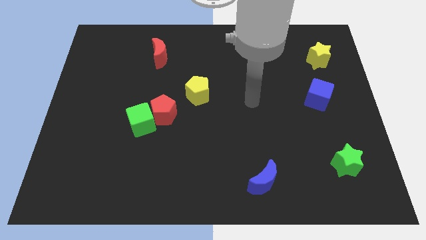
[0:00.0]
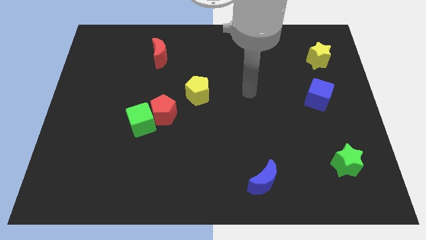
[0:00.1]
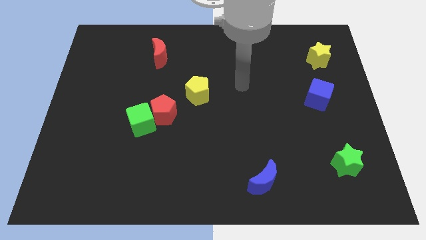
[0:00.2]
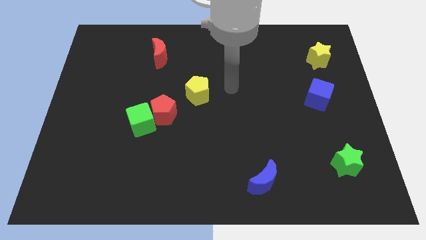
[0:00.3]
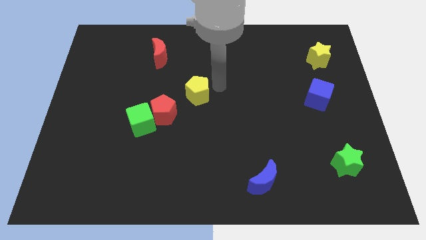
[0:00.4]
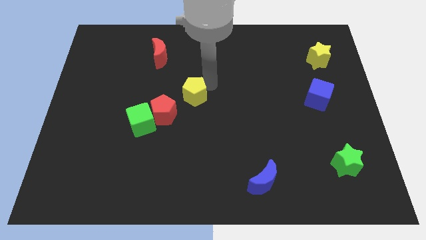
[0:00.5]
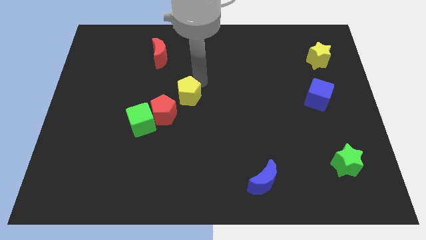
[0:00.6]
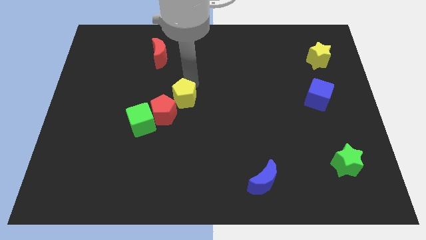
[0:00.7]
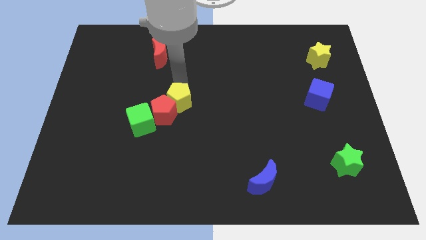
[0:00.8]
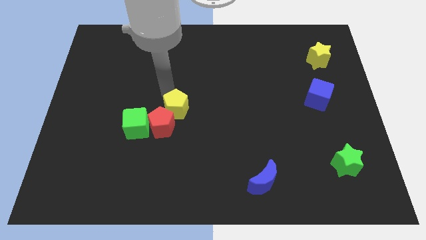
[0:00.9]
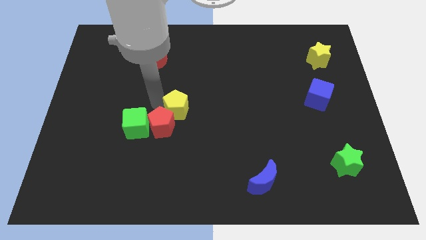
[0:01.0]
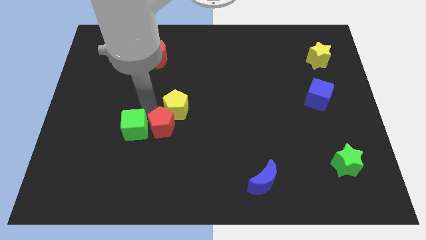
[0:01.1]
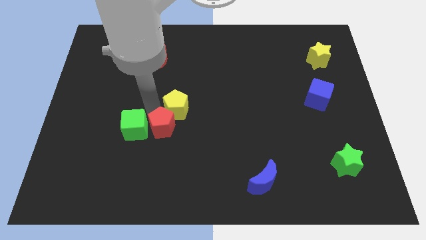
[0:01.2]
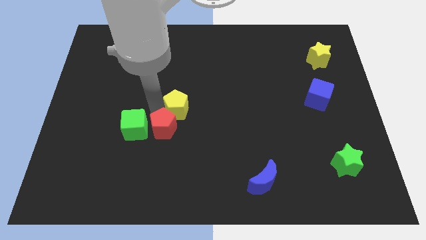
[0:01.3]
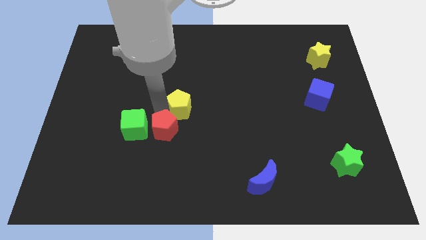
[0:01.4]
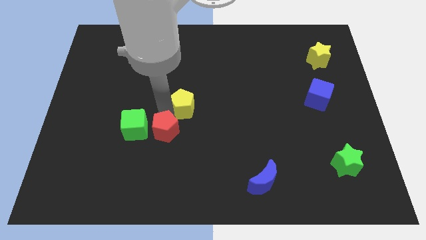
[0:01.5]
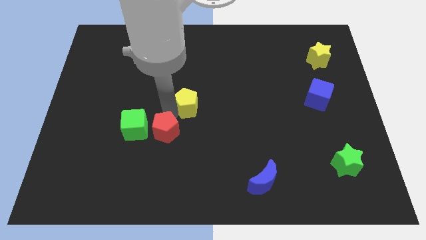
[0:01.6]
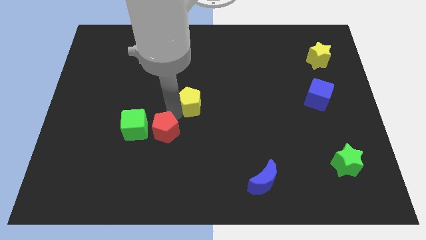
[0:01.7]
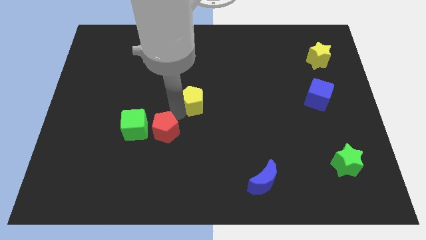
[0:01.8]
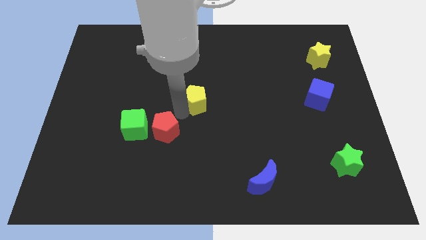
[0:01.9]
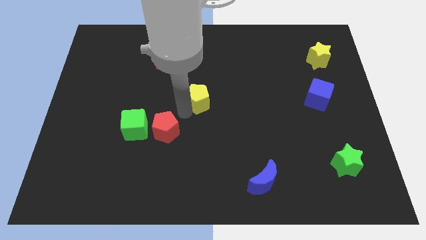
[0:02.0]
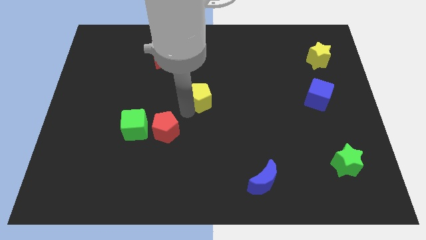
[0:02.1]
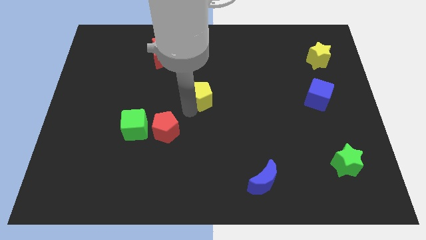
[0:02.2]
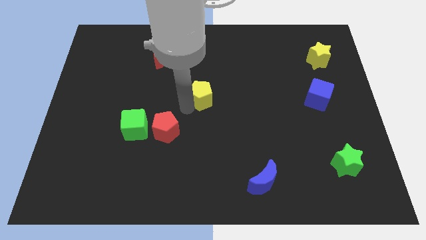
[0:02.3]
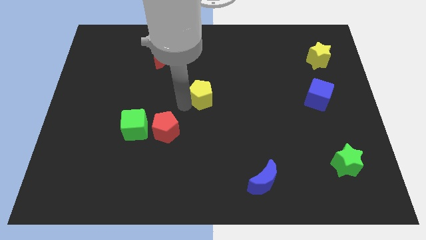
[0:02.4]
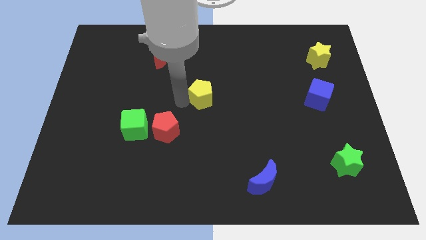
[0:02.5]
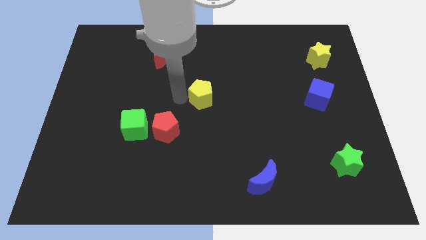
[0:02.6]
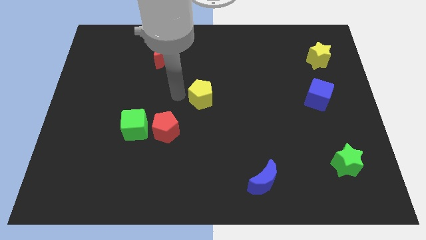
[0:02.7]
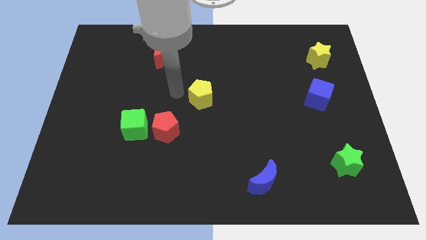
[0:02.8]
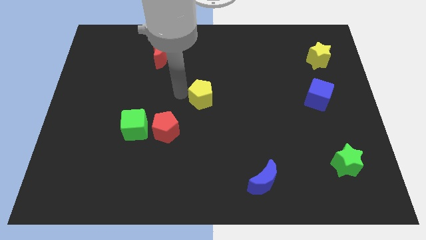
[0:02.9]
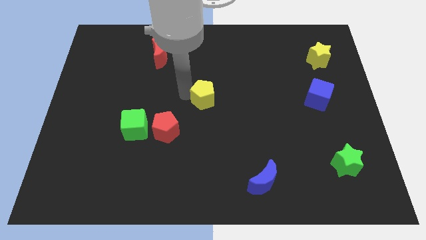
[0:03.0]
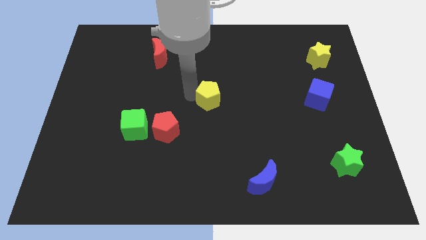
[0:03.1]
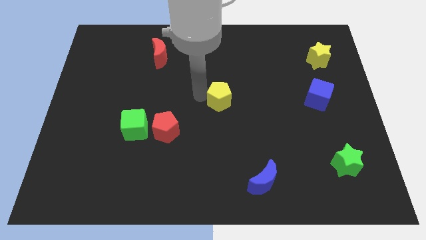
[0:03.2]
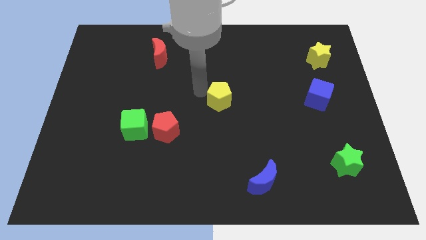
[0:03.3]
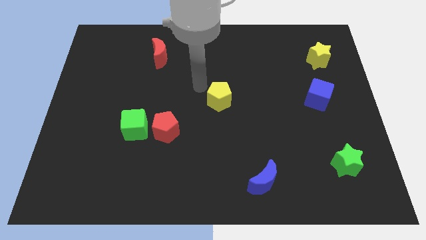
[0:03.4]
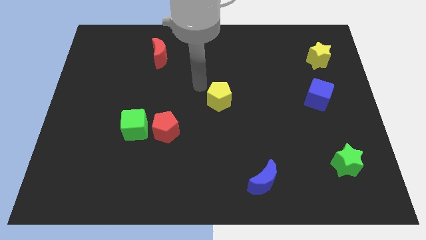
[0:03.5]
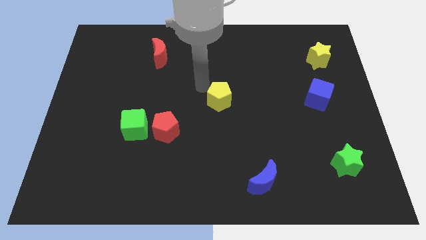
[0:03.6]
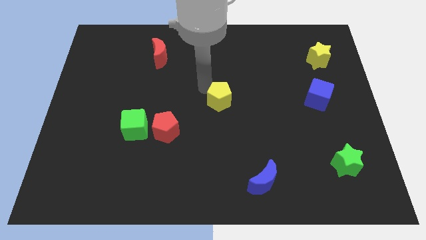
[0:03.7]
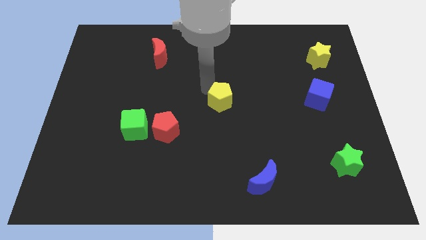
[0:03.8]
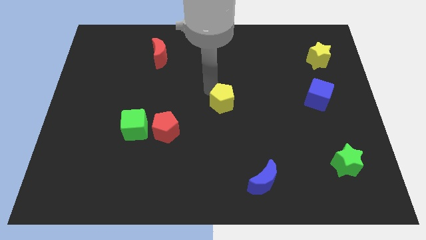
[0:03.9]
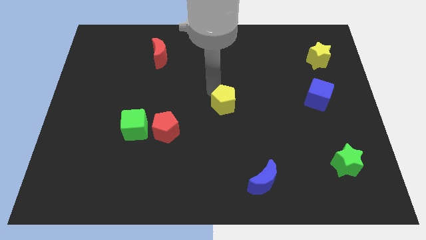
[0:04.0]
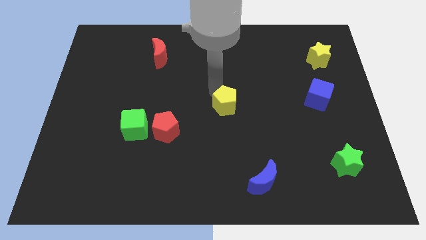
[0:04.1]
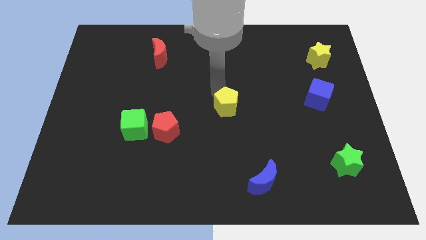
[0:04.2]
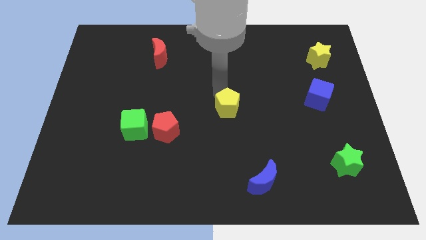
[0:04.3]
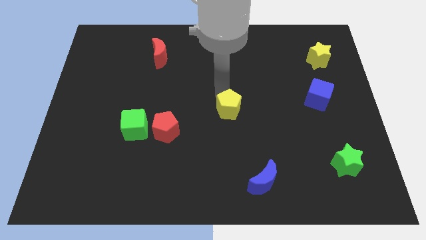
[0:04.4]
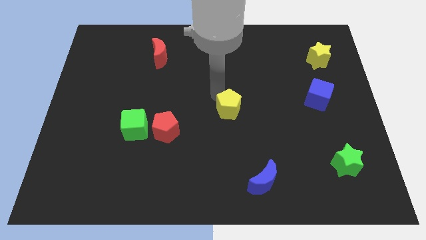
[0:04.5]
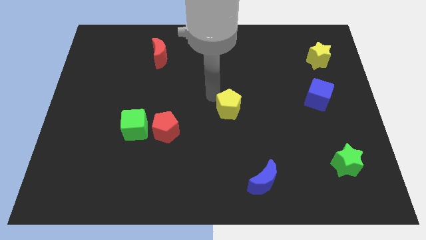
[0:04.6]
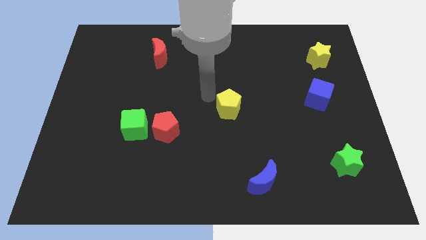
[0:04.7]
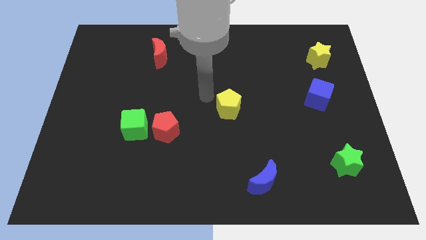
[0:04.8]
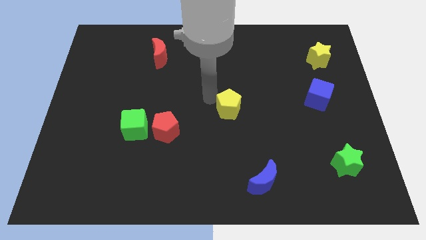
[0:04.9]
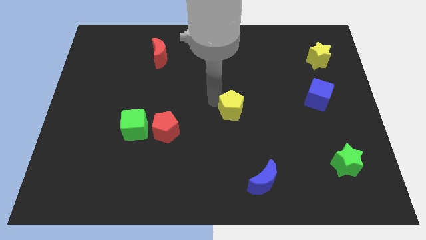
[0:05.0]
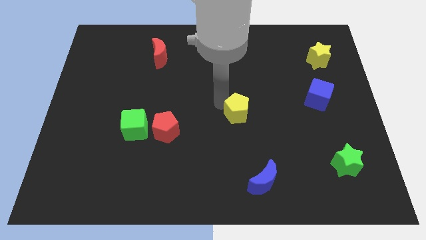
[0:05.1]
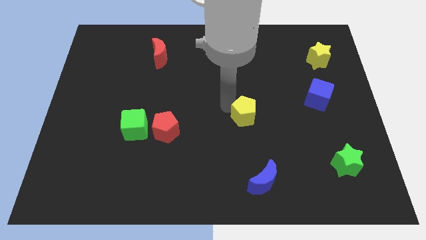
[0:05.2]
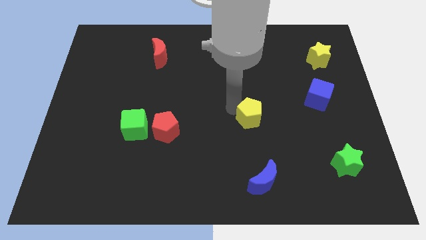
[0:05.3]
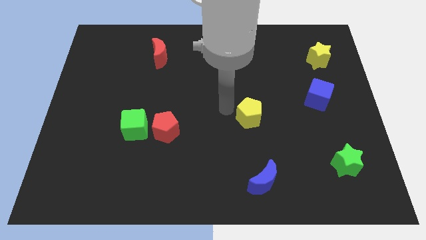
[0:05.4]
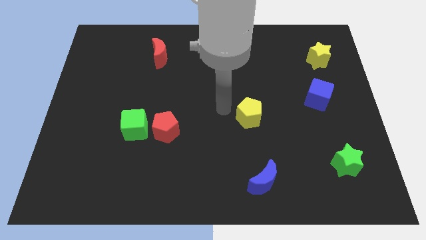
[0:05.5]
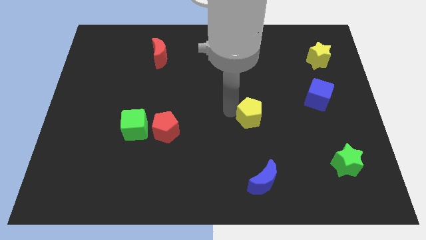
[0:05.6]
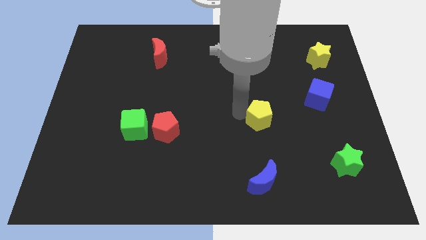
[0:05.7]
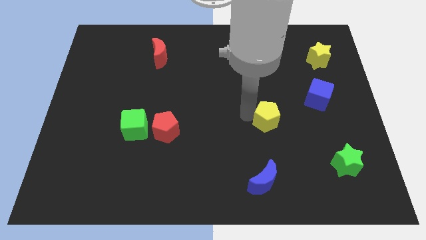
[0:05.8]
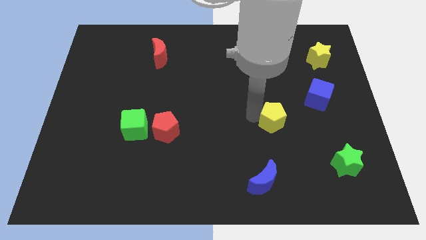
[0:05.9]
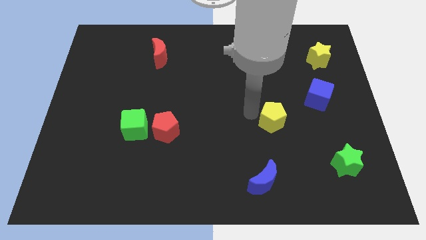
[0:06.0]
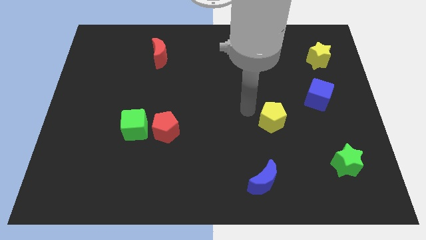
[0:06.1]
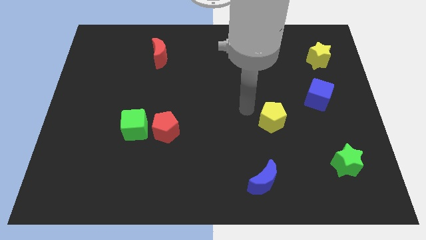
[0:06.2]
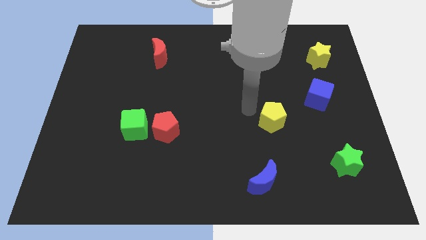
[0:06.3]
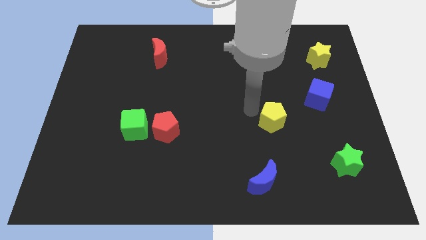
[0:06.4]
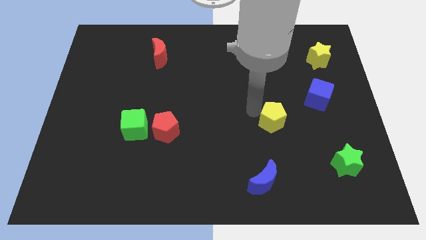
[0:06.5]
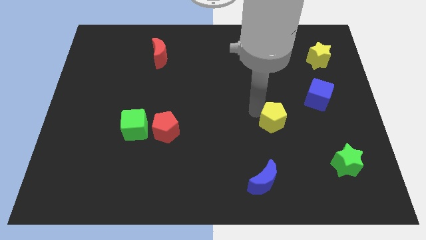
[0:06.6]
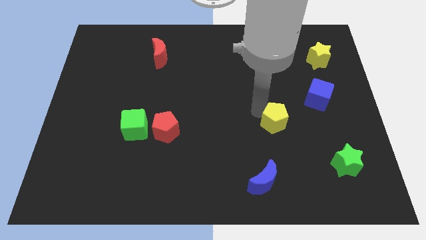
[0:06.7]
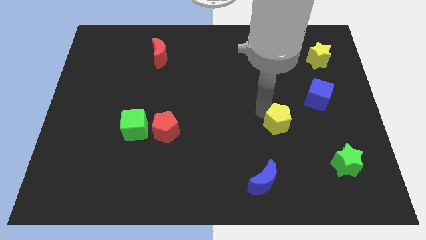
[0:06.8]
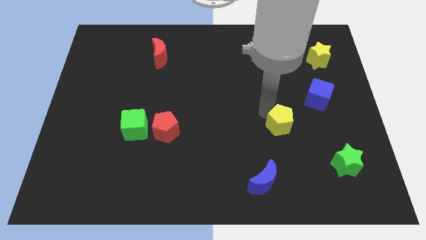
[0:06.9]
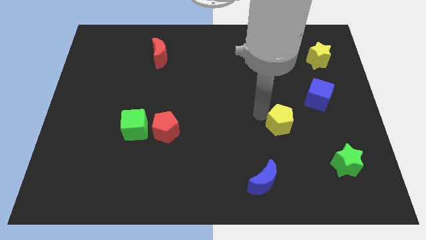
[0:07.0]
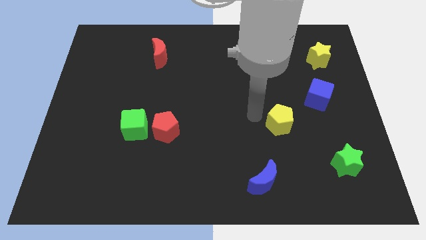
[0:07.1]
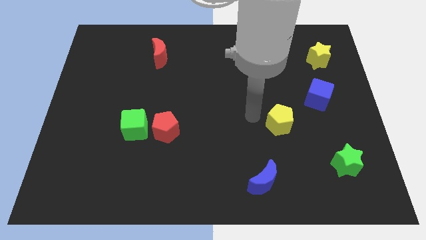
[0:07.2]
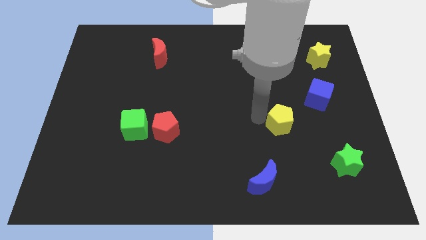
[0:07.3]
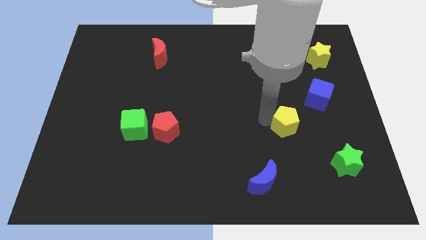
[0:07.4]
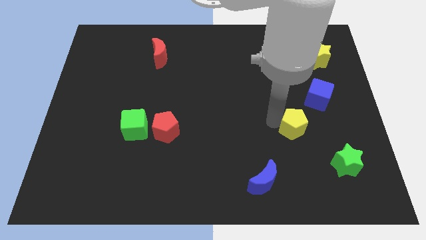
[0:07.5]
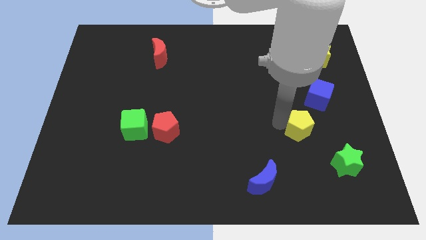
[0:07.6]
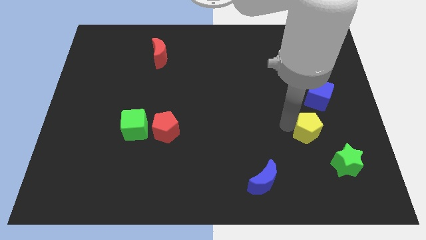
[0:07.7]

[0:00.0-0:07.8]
move the yellow pentagon below the blue cube
